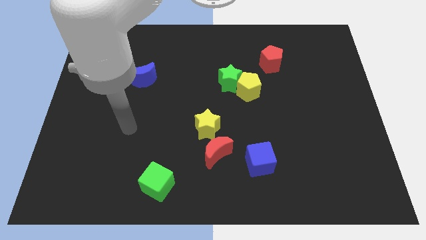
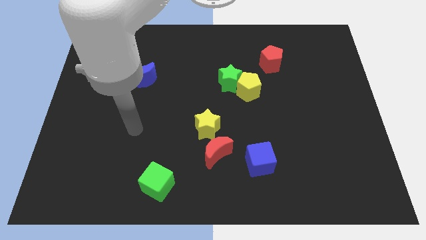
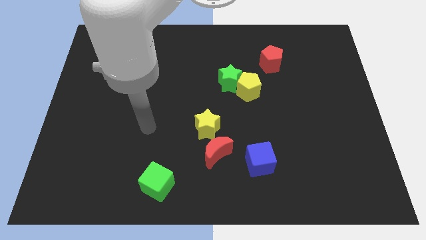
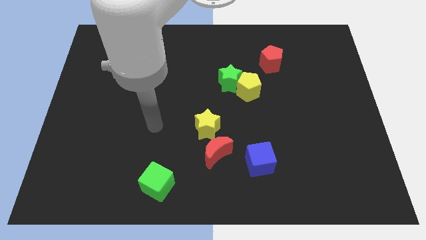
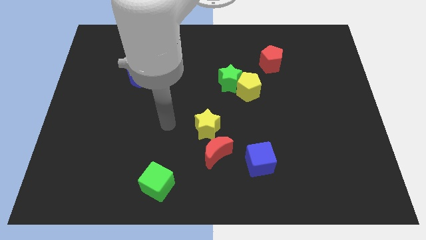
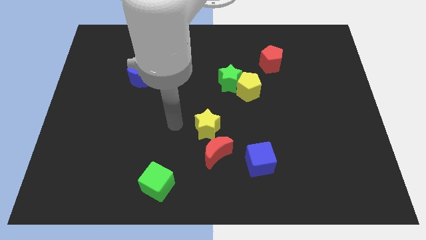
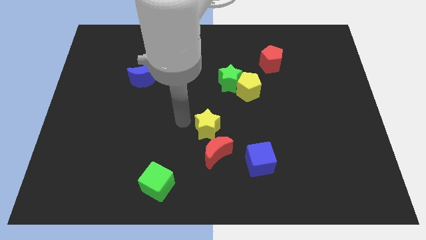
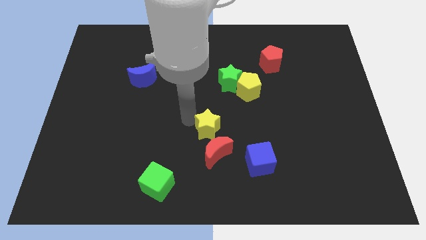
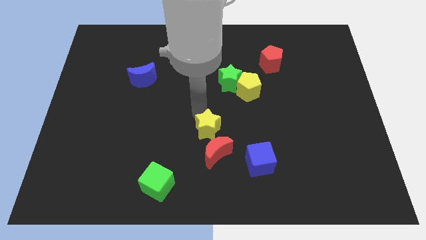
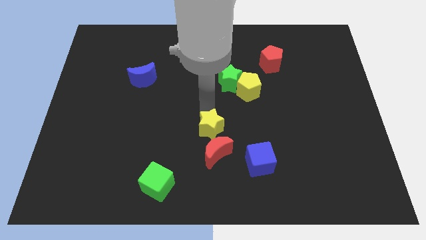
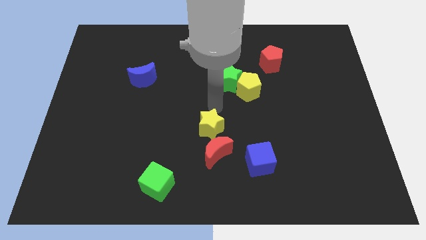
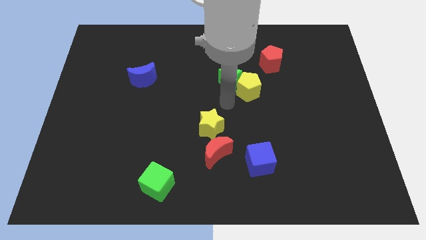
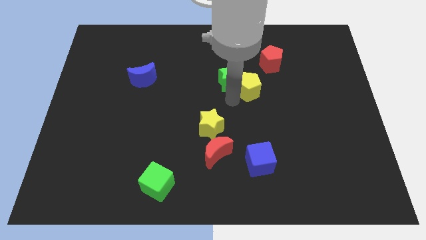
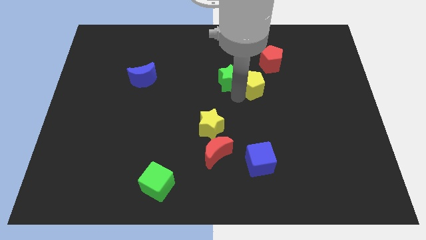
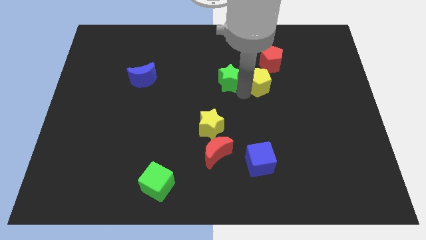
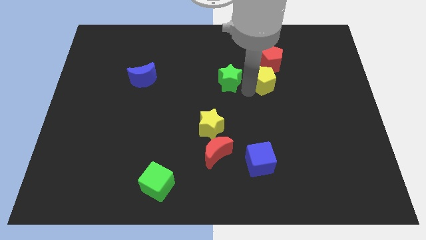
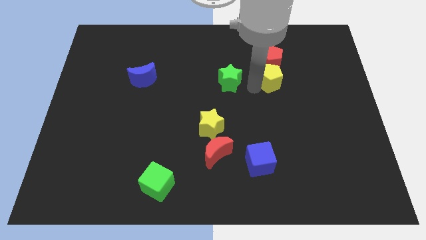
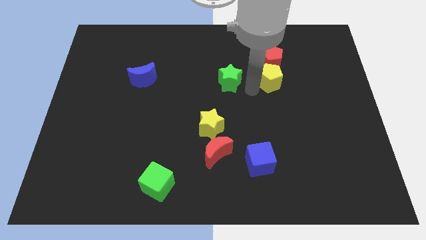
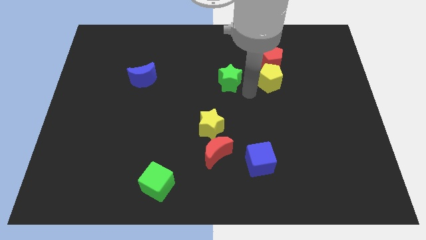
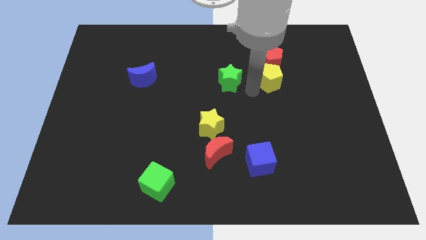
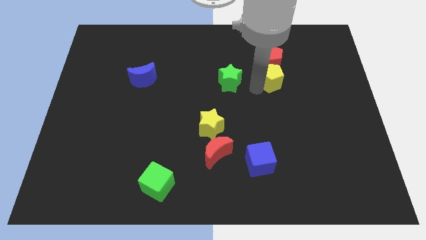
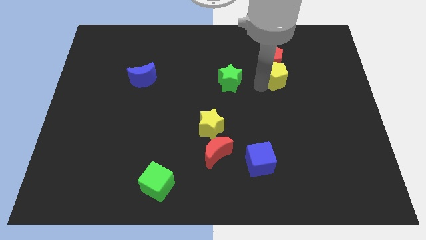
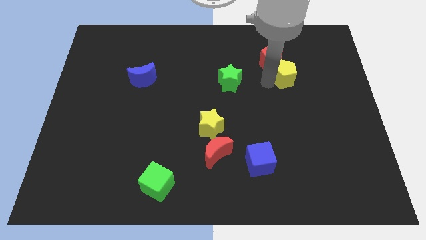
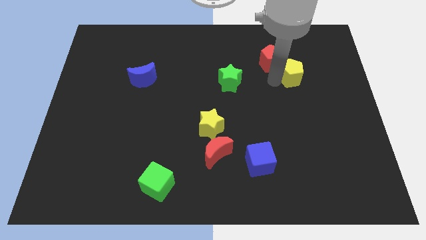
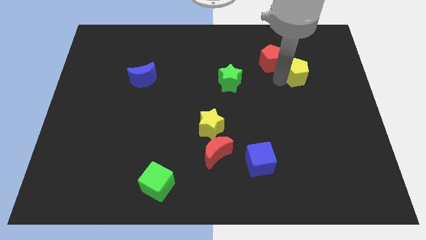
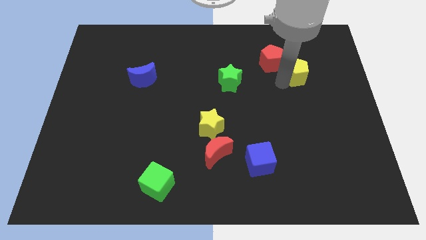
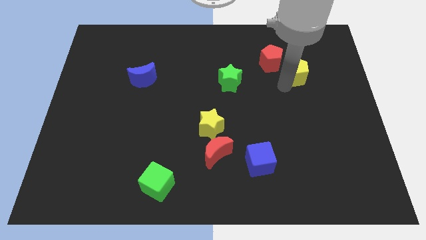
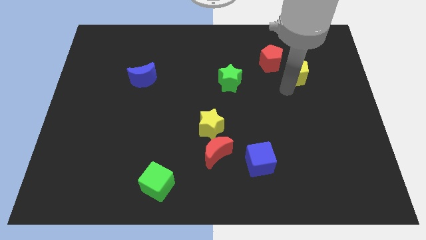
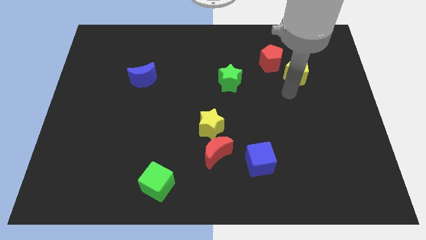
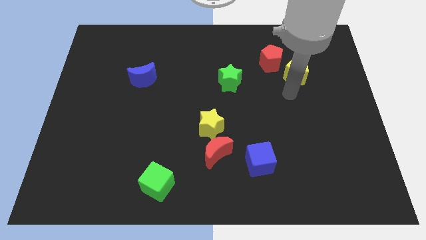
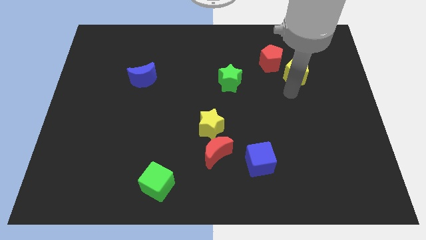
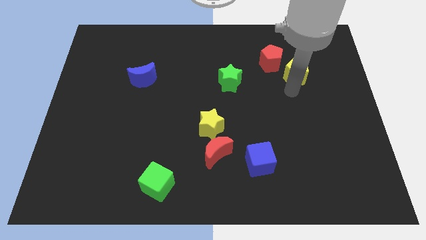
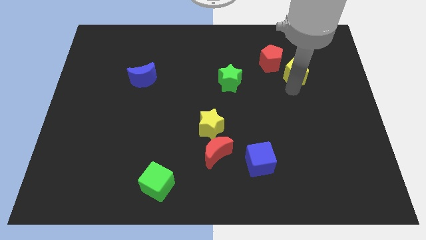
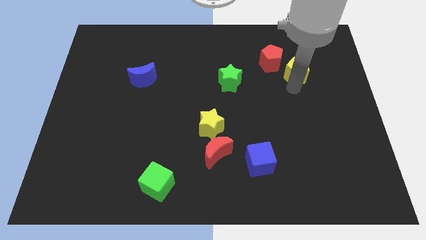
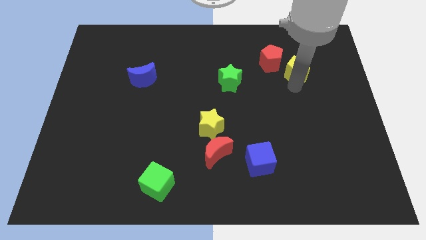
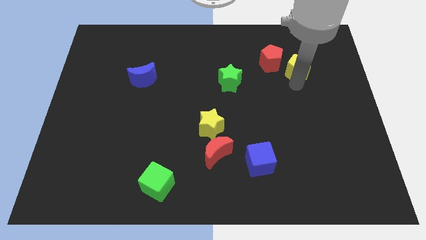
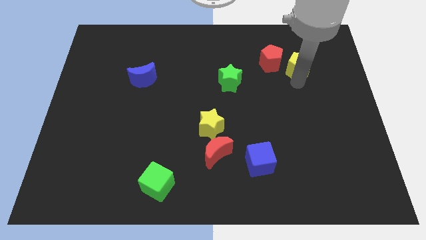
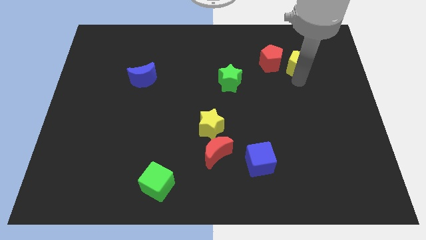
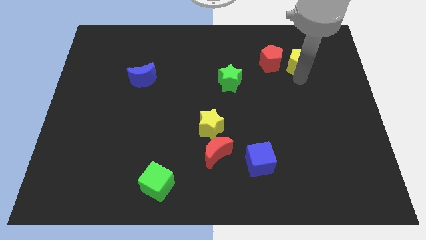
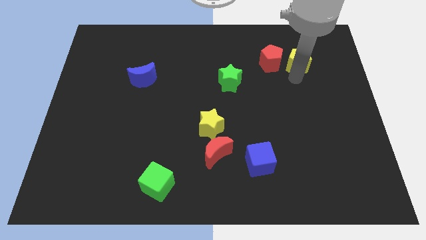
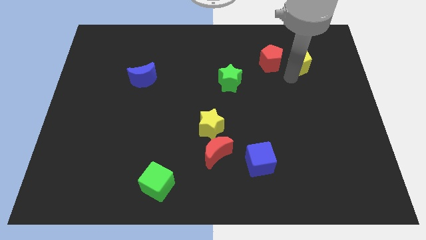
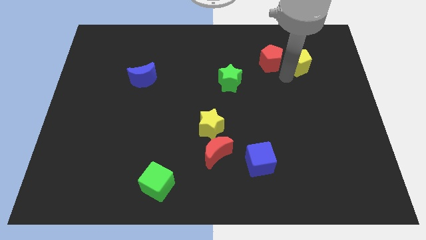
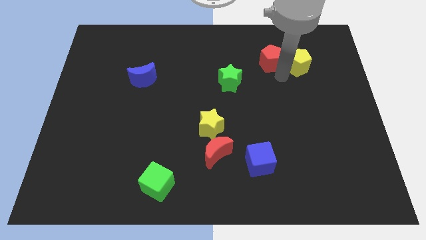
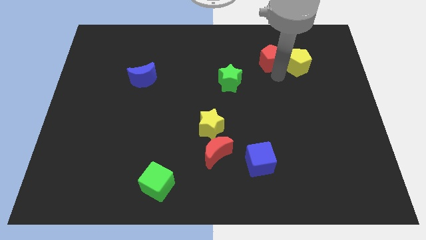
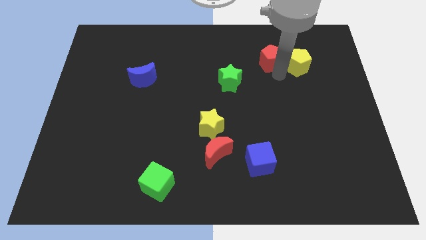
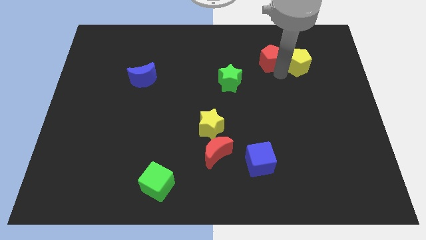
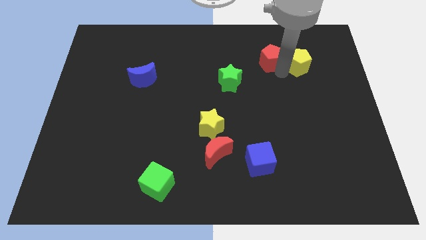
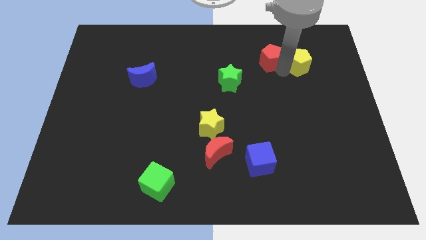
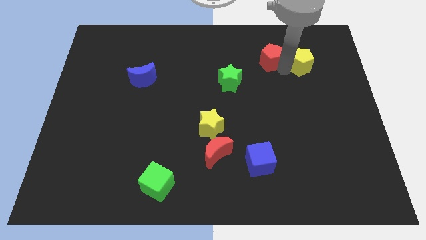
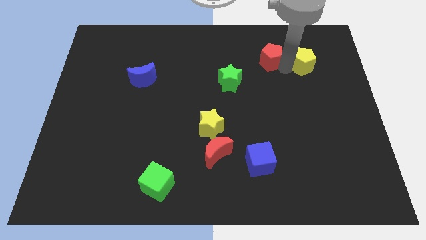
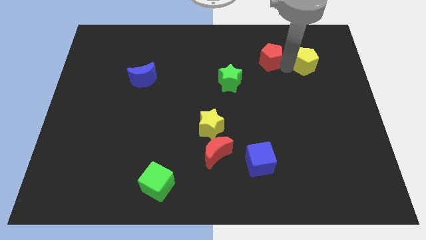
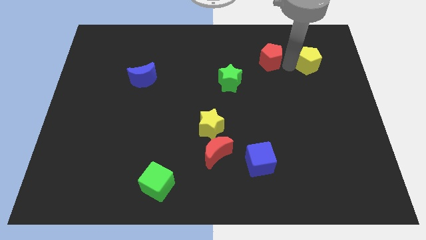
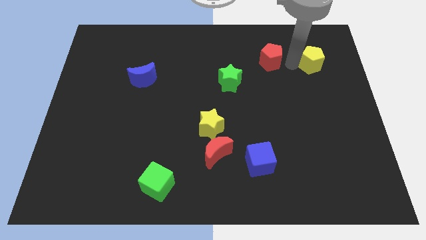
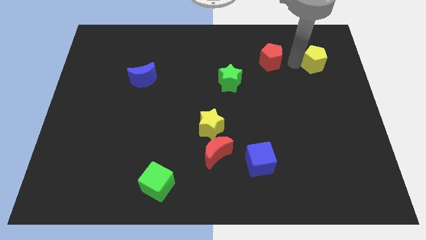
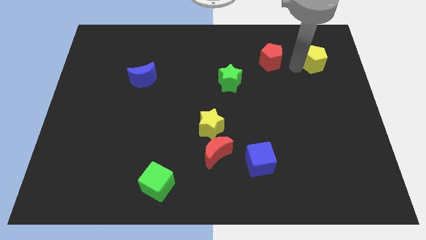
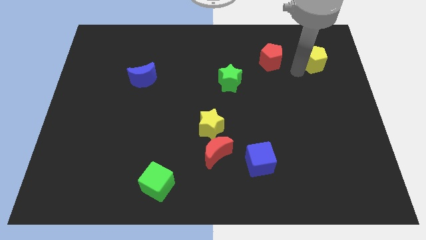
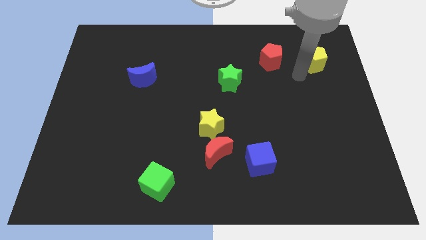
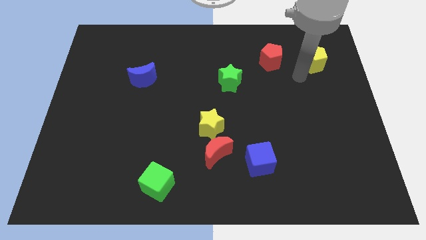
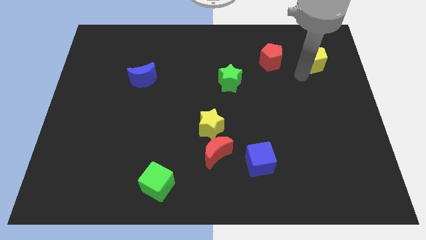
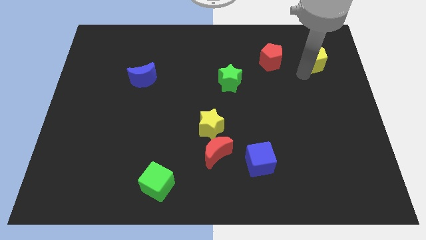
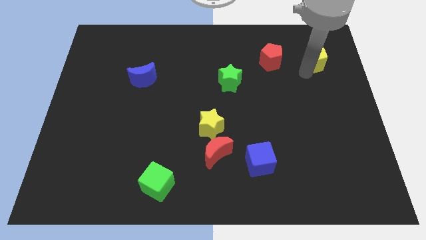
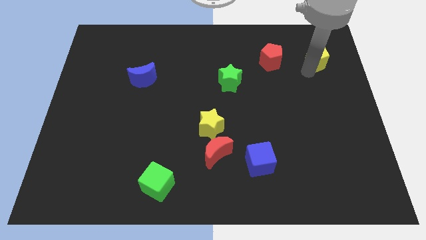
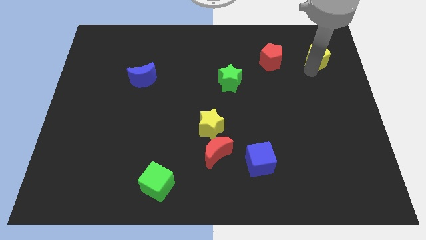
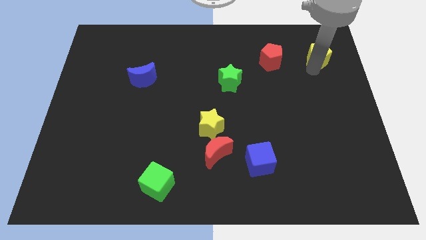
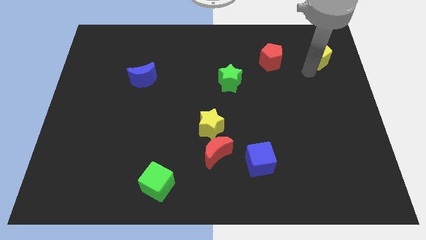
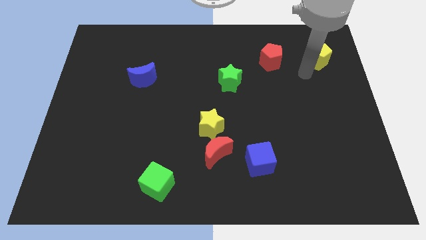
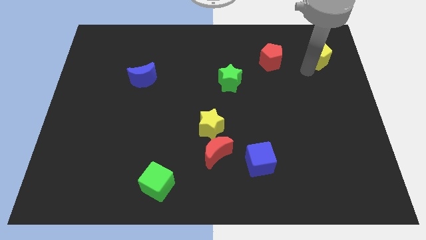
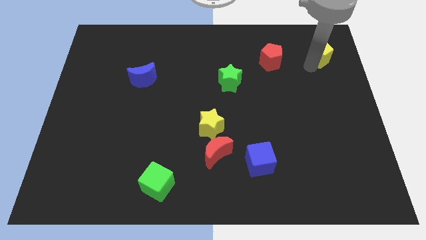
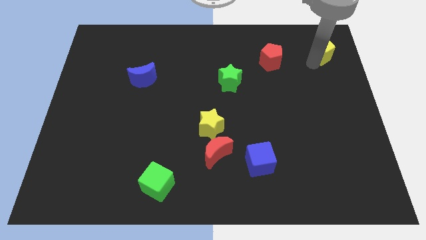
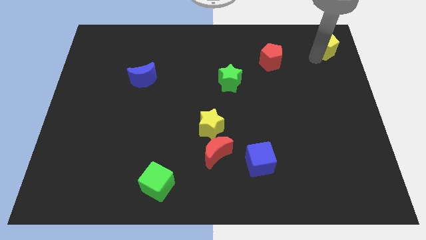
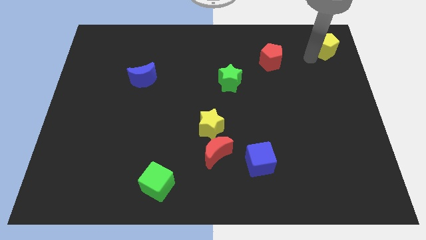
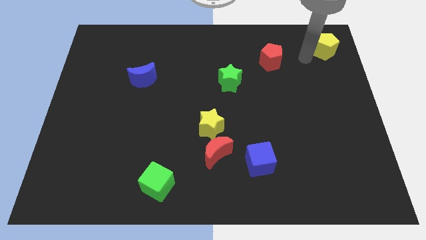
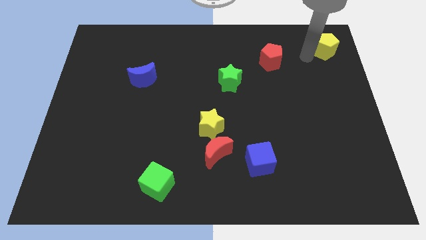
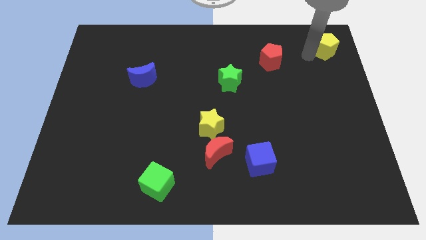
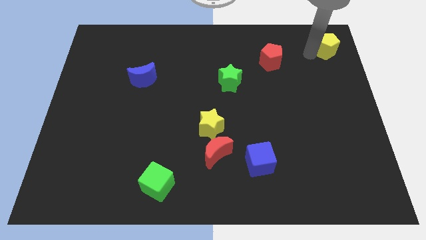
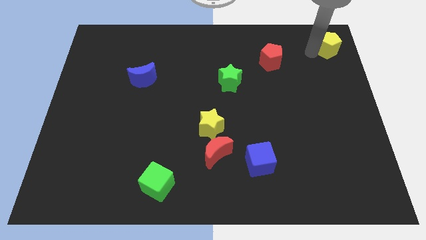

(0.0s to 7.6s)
move the yellow pentagon to the upper right corner
